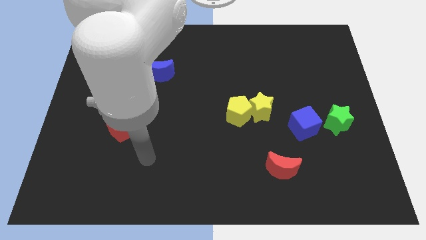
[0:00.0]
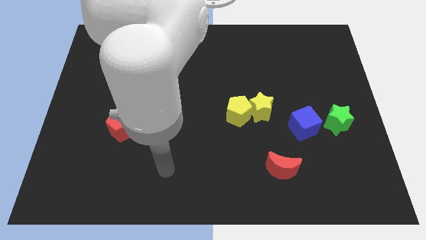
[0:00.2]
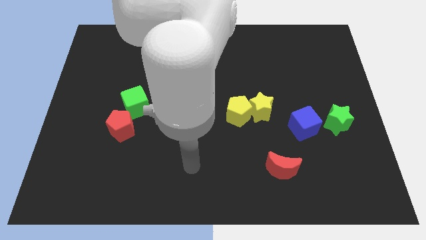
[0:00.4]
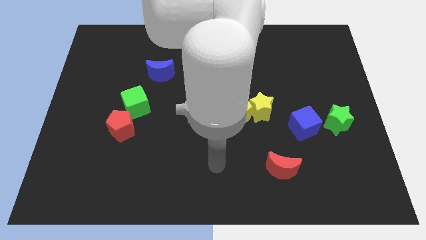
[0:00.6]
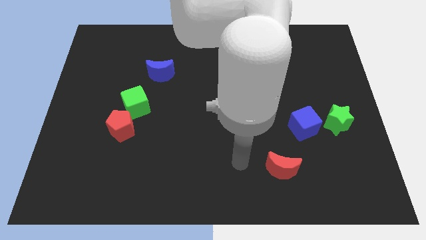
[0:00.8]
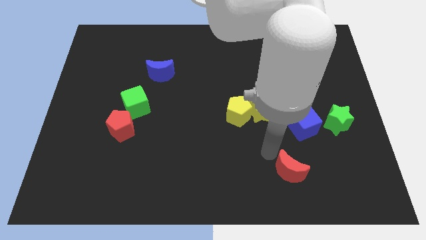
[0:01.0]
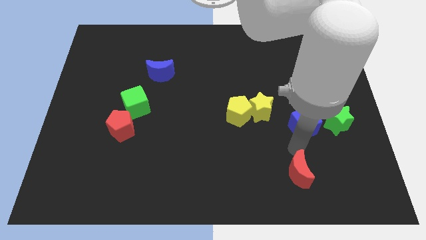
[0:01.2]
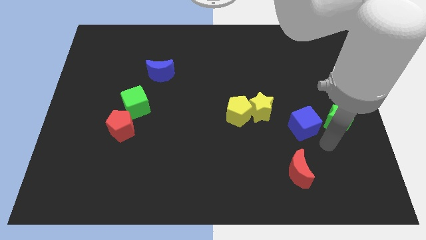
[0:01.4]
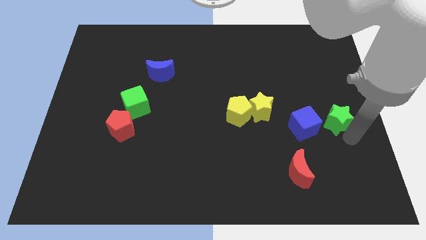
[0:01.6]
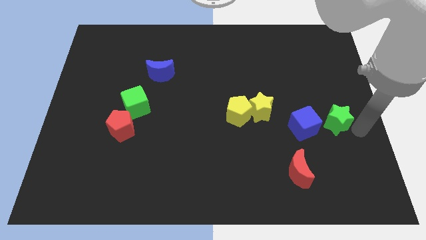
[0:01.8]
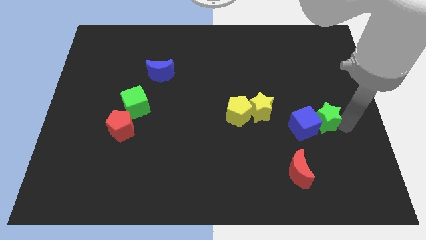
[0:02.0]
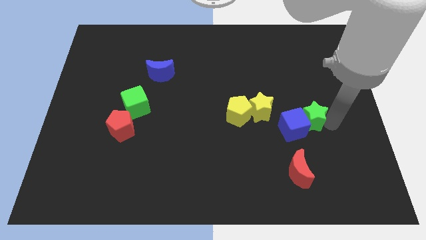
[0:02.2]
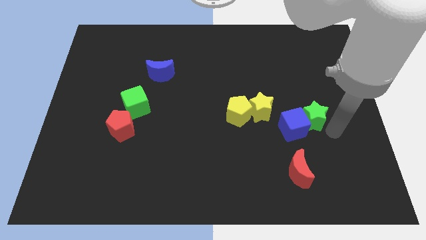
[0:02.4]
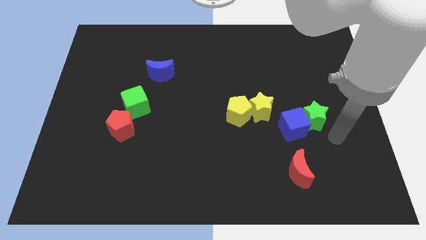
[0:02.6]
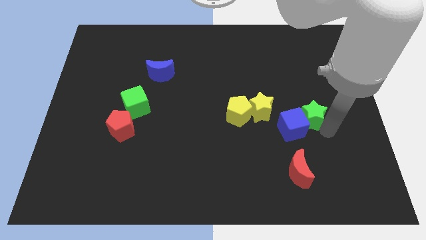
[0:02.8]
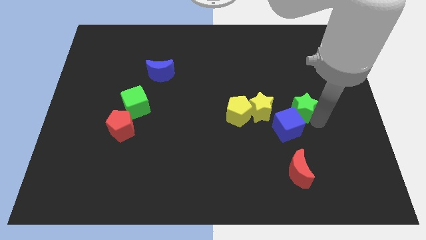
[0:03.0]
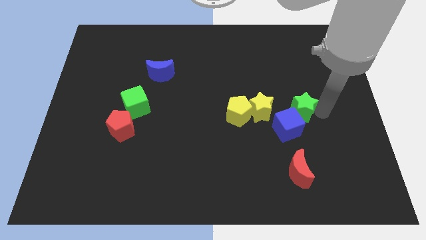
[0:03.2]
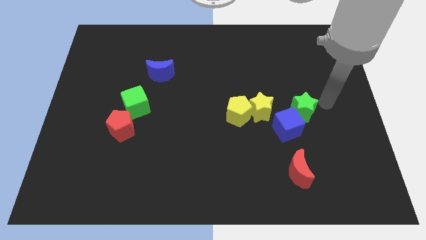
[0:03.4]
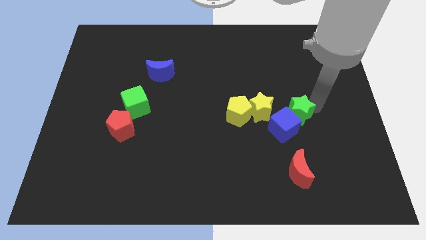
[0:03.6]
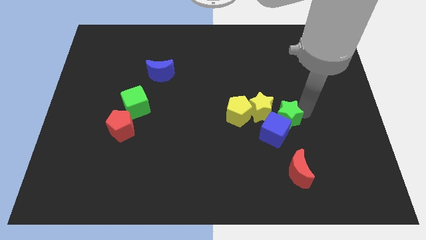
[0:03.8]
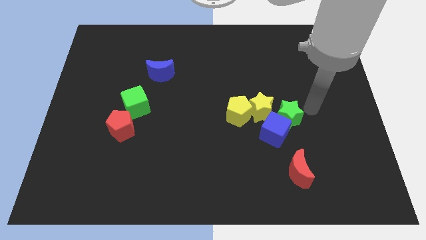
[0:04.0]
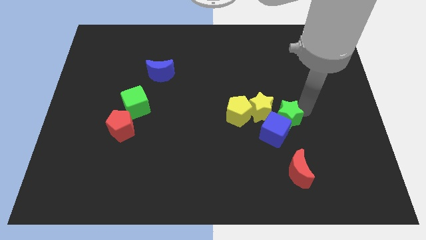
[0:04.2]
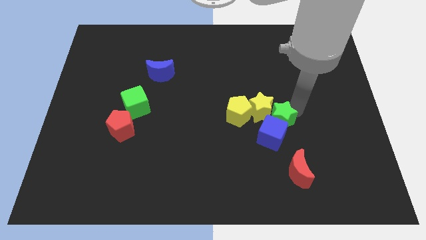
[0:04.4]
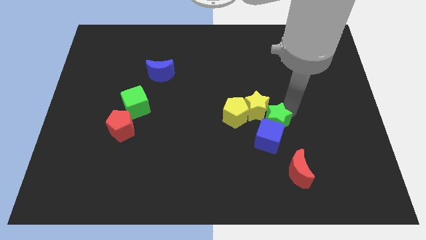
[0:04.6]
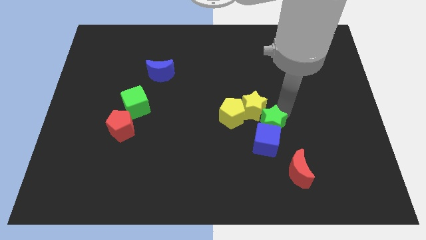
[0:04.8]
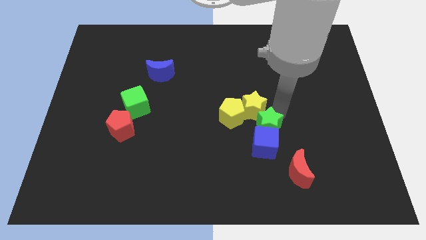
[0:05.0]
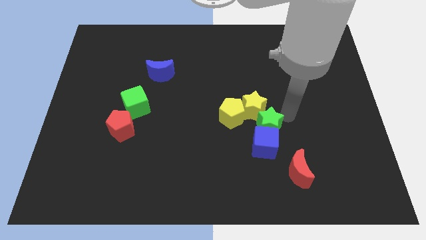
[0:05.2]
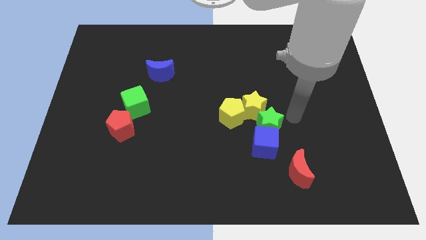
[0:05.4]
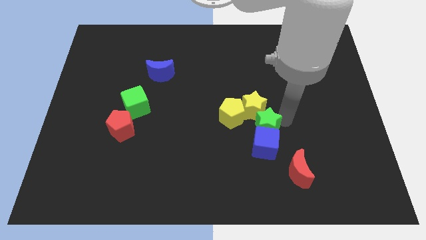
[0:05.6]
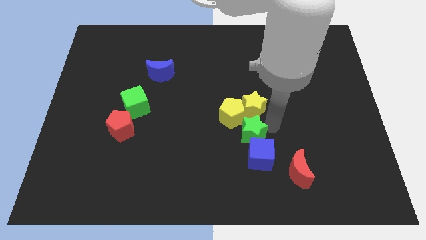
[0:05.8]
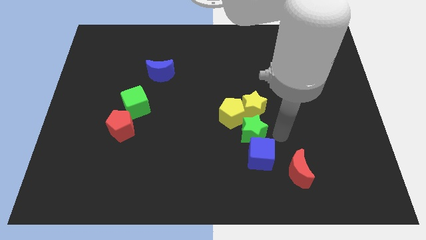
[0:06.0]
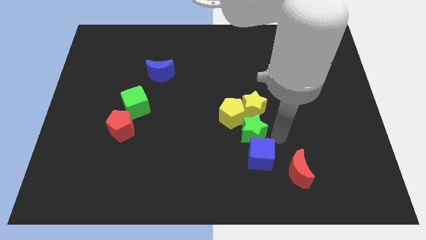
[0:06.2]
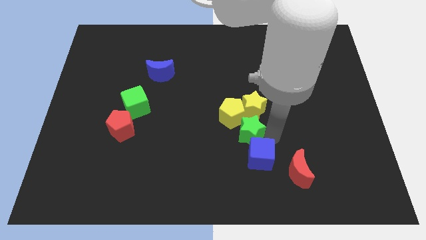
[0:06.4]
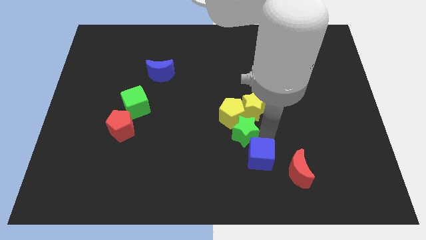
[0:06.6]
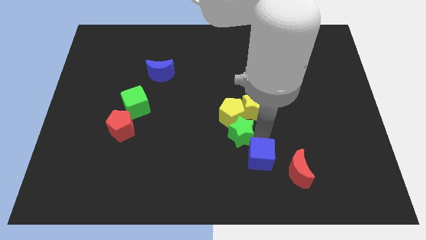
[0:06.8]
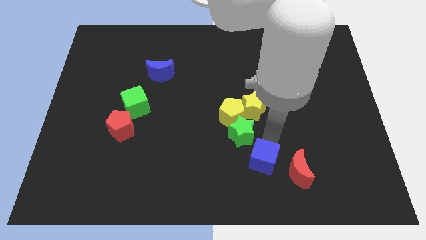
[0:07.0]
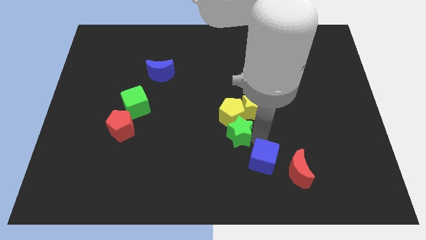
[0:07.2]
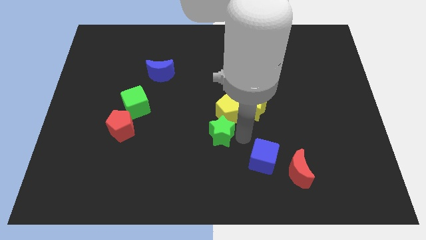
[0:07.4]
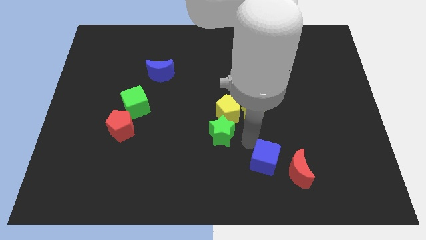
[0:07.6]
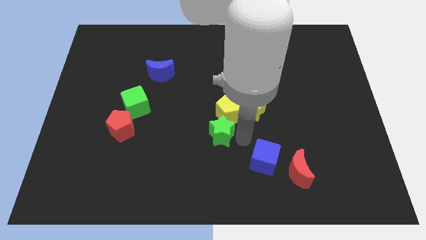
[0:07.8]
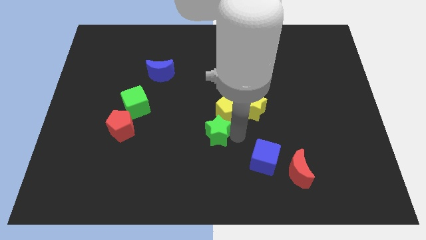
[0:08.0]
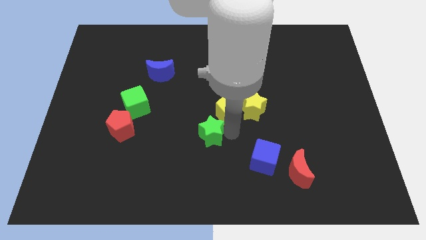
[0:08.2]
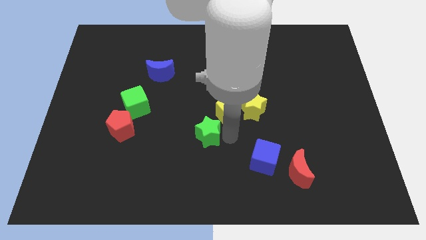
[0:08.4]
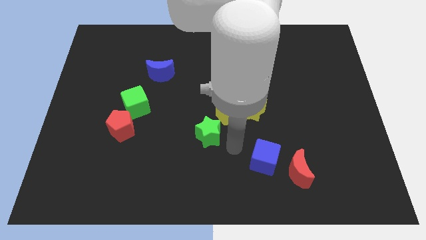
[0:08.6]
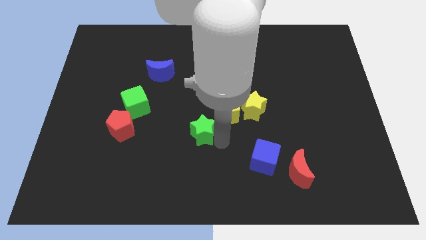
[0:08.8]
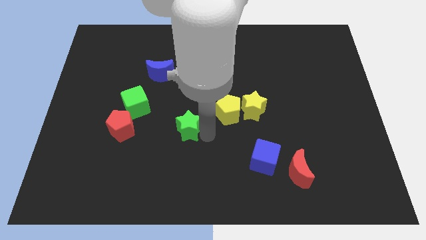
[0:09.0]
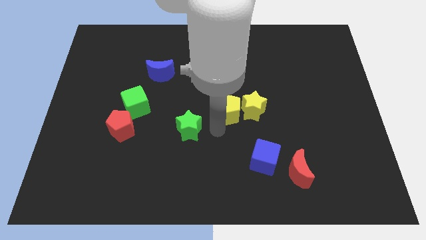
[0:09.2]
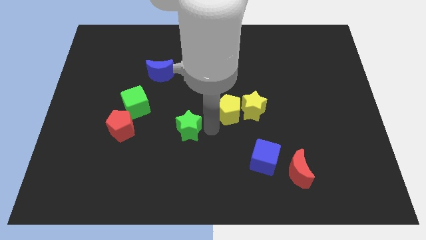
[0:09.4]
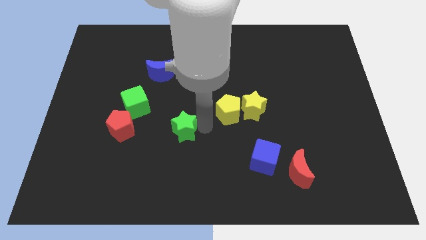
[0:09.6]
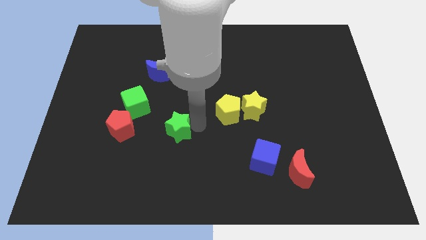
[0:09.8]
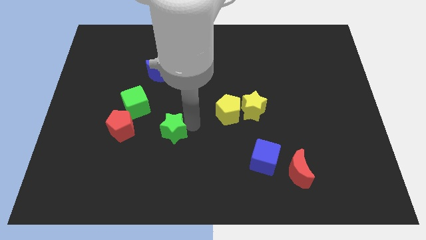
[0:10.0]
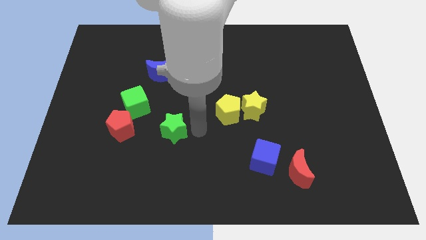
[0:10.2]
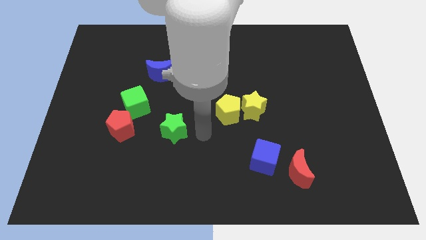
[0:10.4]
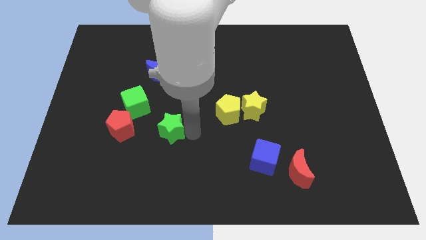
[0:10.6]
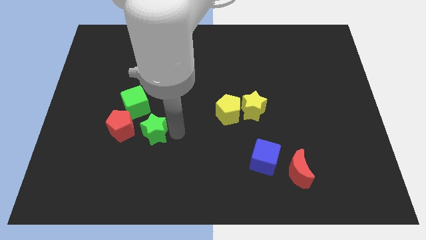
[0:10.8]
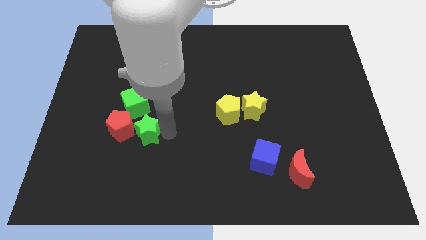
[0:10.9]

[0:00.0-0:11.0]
slide the green star close to the red pentagon

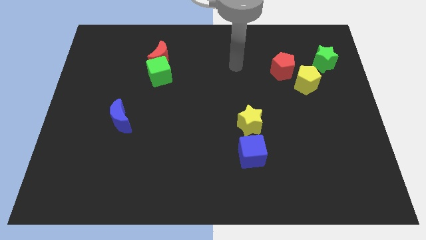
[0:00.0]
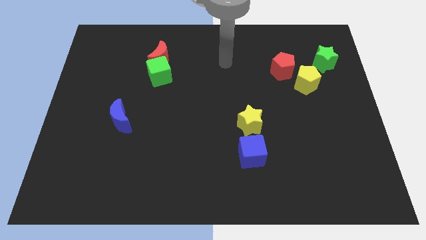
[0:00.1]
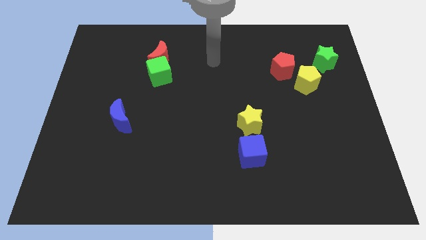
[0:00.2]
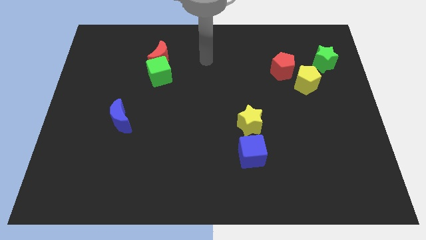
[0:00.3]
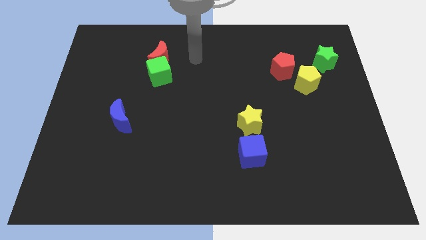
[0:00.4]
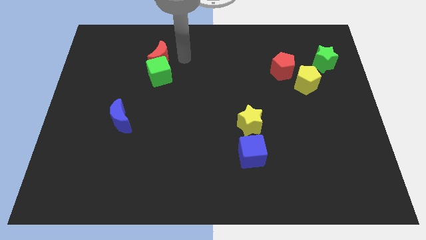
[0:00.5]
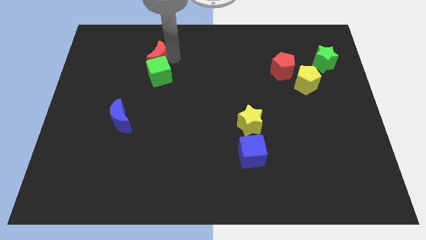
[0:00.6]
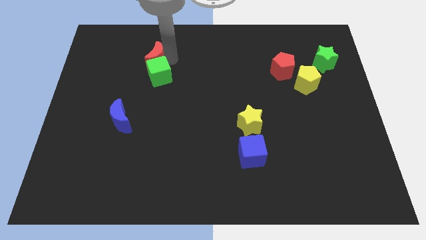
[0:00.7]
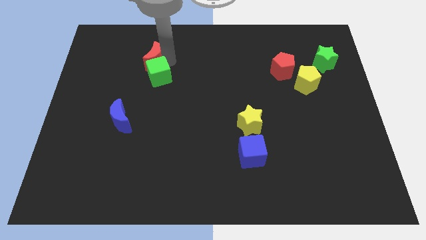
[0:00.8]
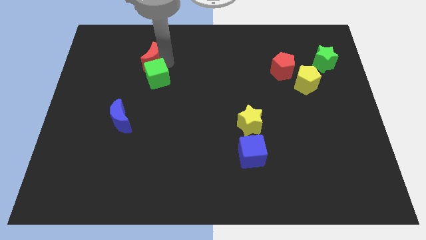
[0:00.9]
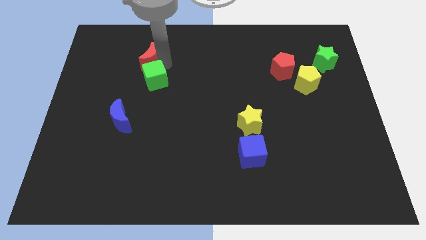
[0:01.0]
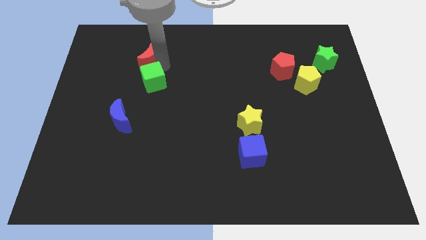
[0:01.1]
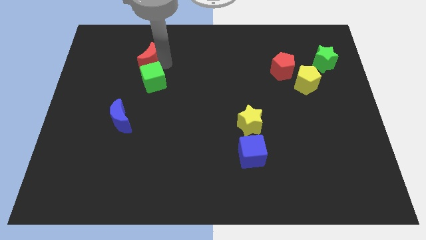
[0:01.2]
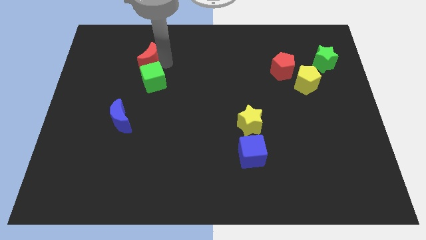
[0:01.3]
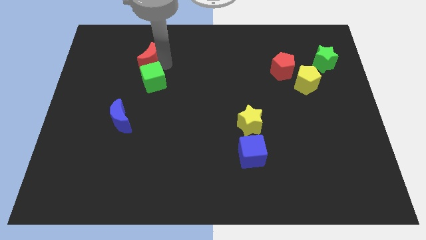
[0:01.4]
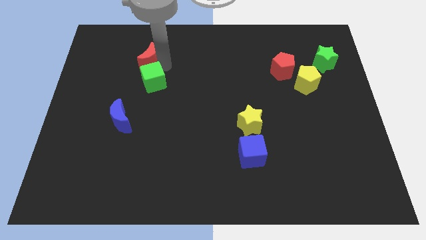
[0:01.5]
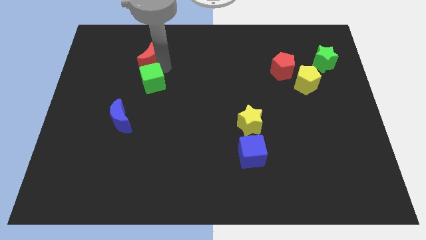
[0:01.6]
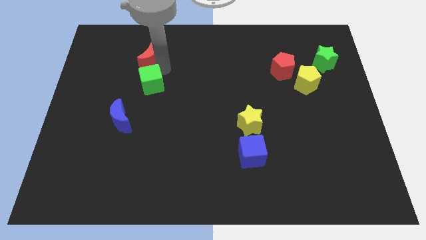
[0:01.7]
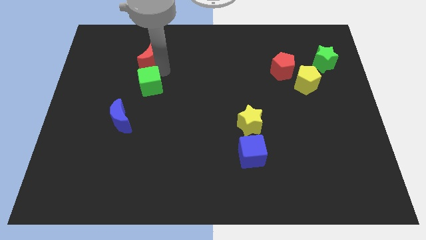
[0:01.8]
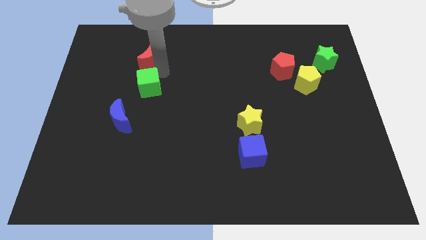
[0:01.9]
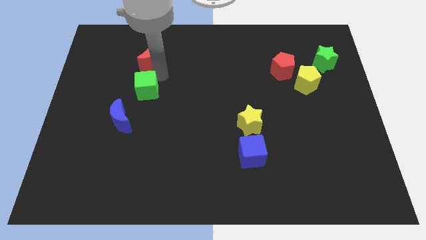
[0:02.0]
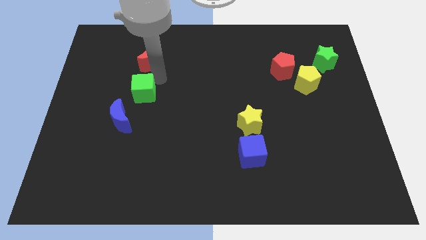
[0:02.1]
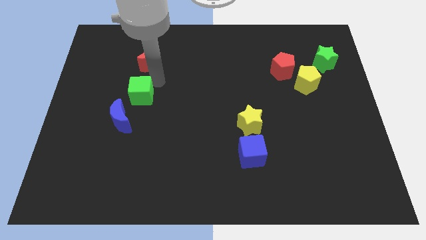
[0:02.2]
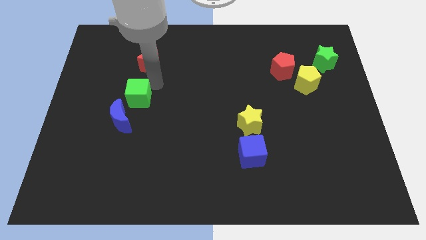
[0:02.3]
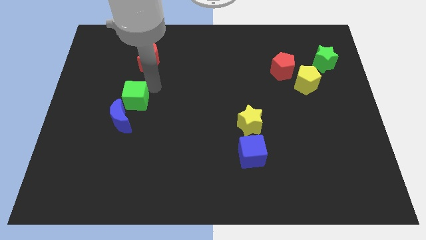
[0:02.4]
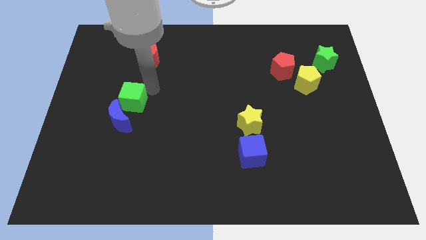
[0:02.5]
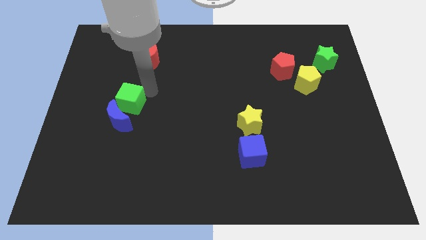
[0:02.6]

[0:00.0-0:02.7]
move the green cube towards the blue moon
